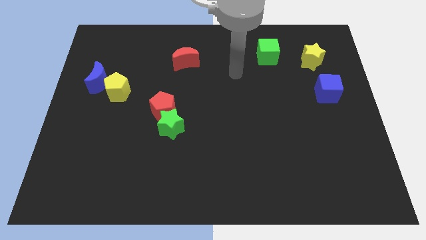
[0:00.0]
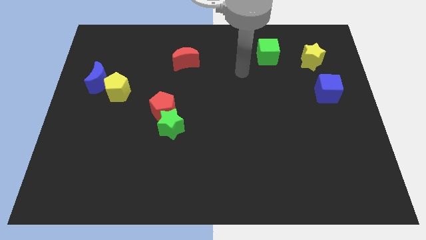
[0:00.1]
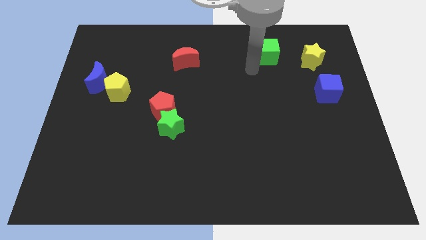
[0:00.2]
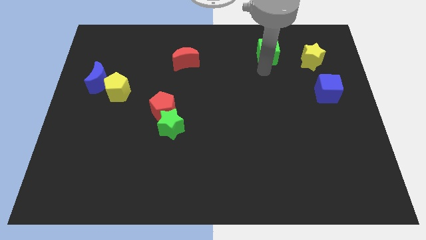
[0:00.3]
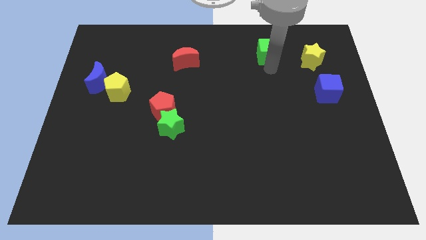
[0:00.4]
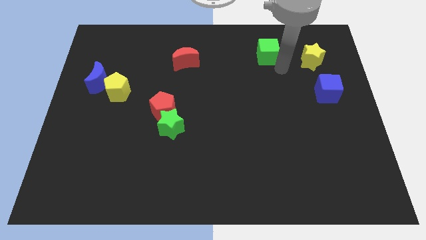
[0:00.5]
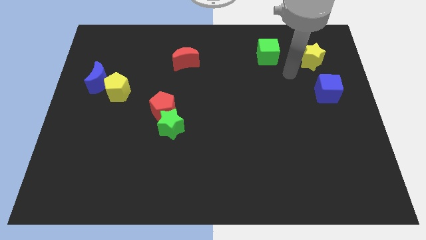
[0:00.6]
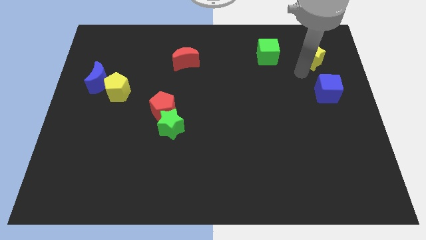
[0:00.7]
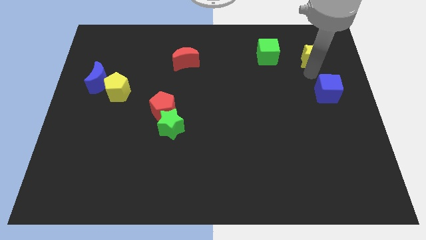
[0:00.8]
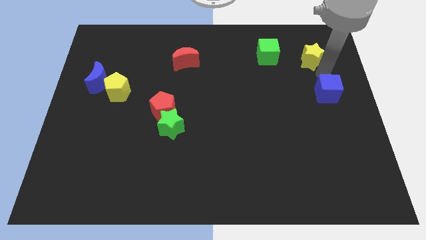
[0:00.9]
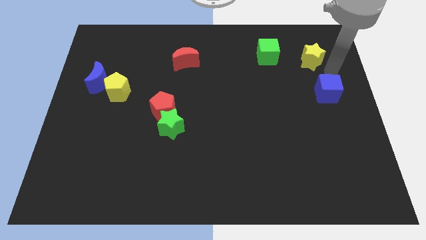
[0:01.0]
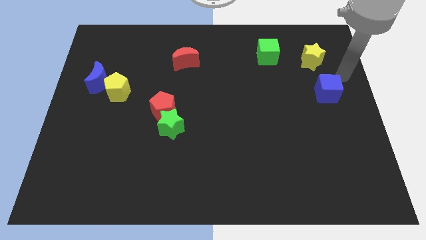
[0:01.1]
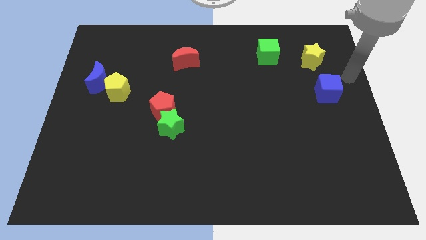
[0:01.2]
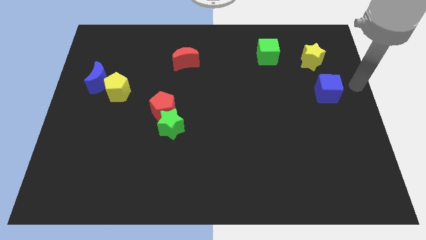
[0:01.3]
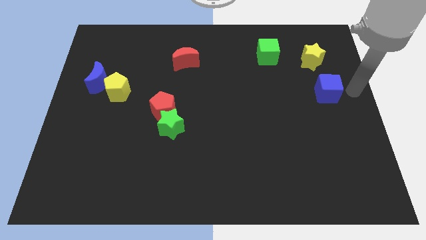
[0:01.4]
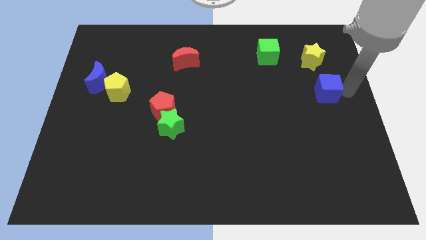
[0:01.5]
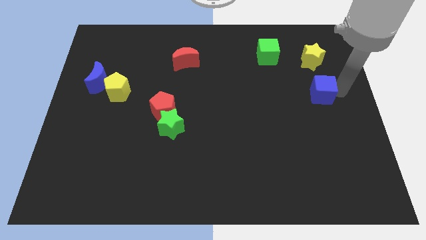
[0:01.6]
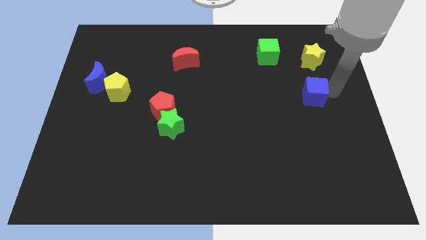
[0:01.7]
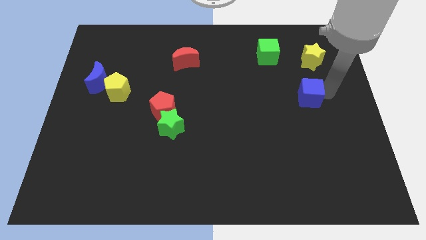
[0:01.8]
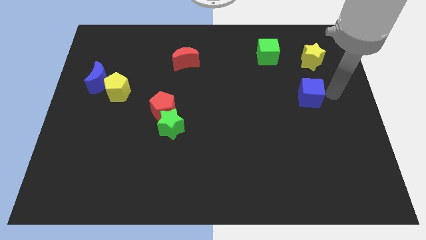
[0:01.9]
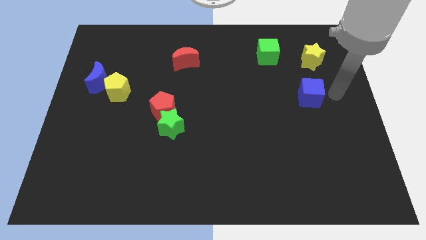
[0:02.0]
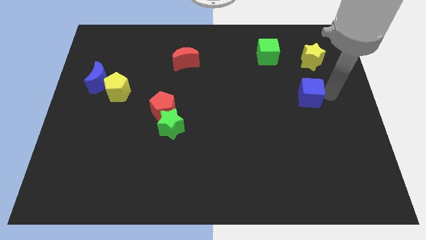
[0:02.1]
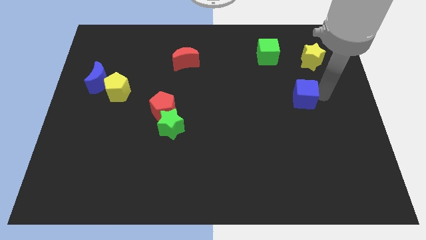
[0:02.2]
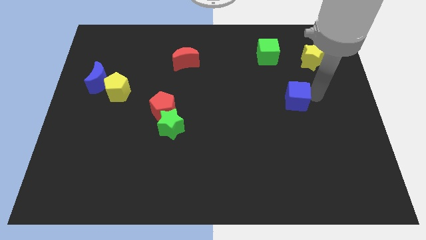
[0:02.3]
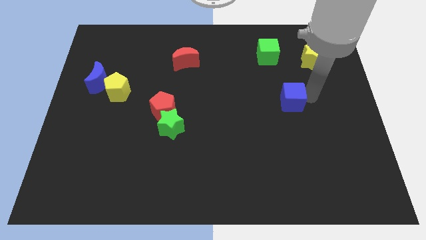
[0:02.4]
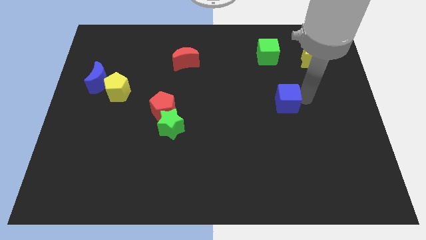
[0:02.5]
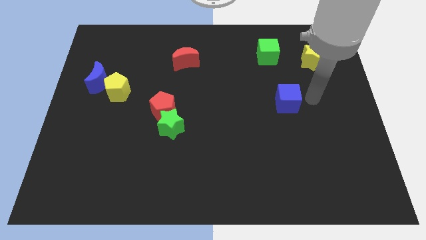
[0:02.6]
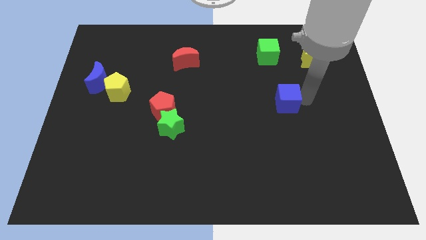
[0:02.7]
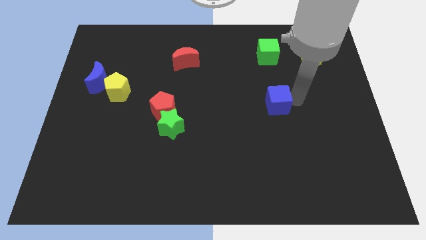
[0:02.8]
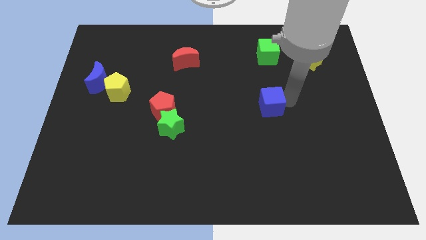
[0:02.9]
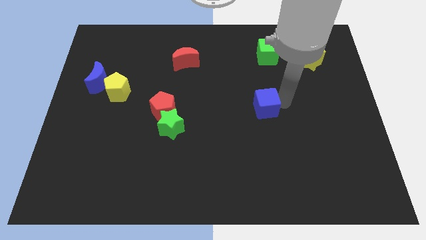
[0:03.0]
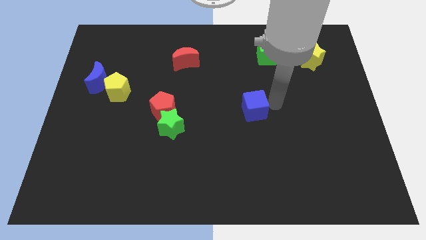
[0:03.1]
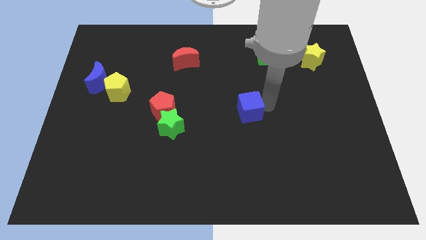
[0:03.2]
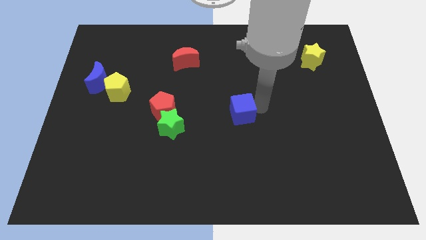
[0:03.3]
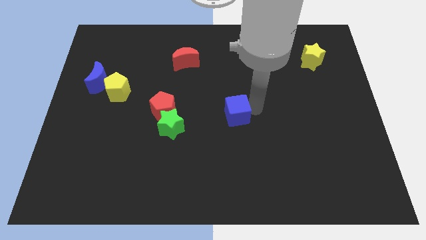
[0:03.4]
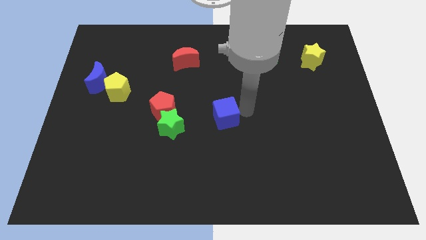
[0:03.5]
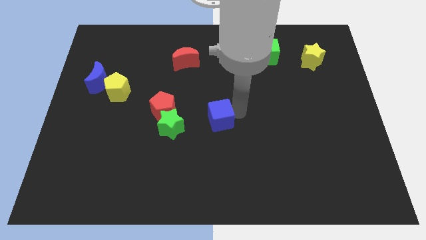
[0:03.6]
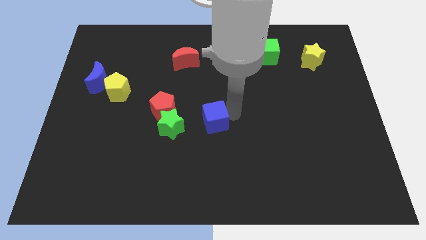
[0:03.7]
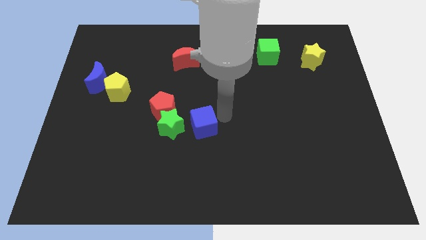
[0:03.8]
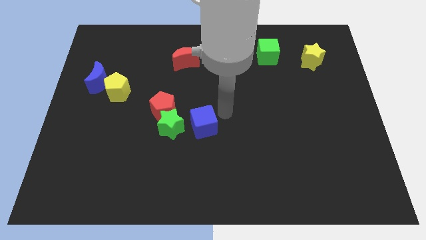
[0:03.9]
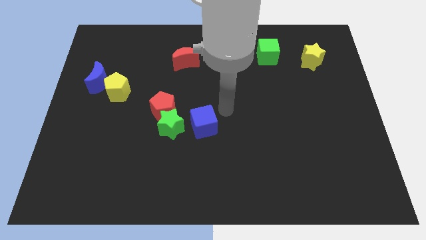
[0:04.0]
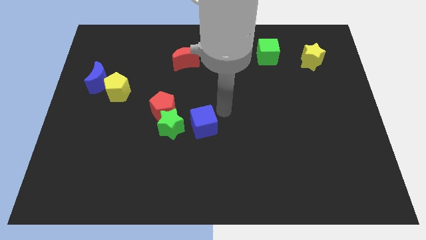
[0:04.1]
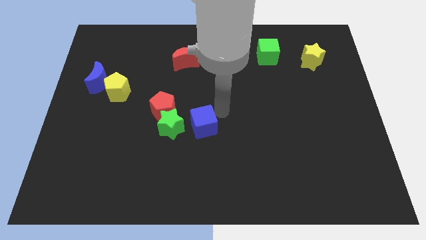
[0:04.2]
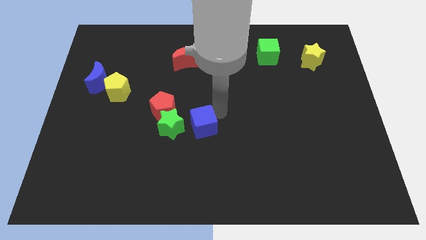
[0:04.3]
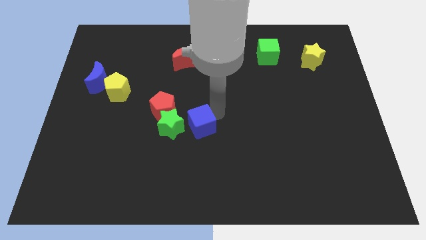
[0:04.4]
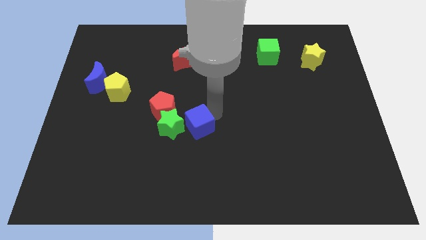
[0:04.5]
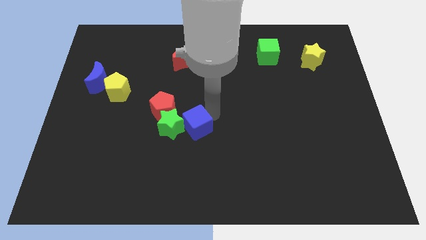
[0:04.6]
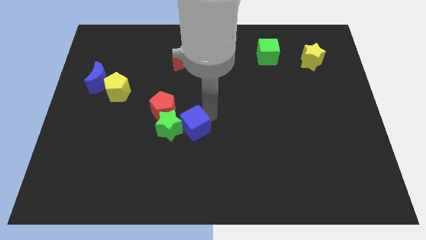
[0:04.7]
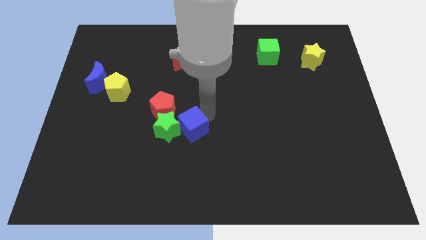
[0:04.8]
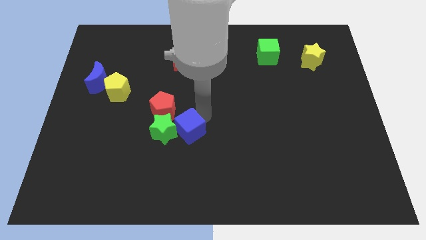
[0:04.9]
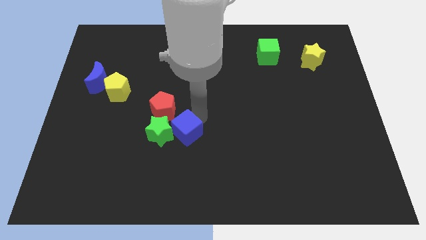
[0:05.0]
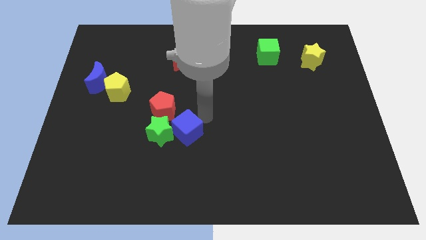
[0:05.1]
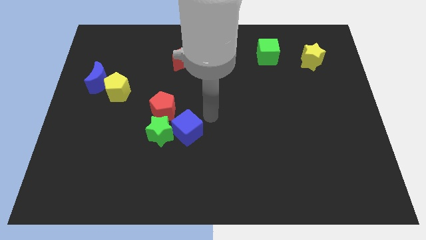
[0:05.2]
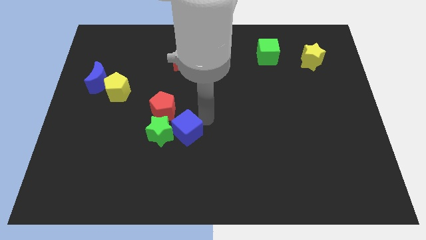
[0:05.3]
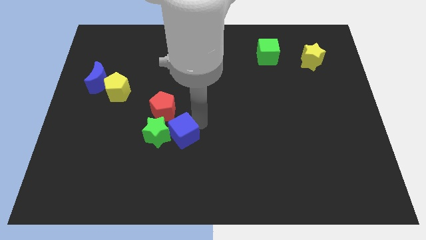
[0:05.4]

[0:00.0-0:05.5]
push the blue cube to the bottom side of the red pentagon

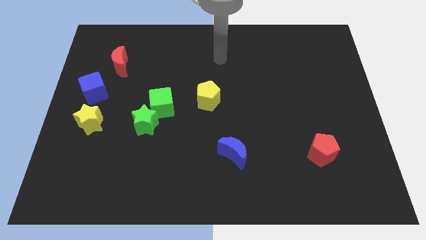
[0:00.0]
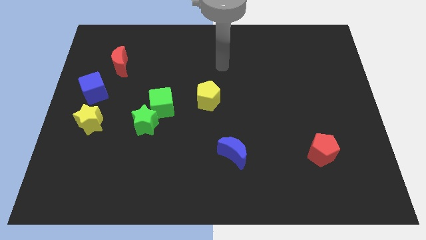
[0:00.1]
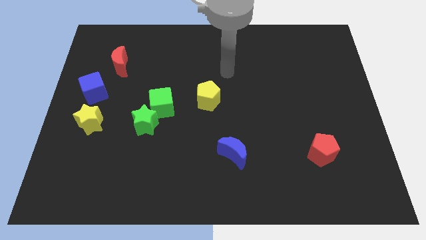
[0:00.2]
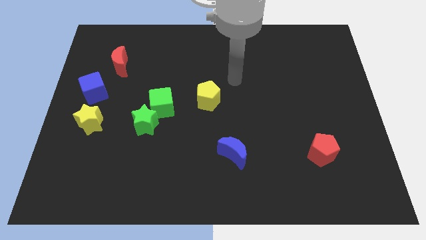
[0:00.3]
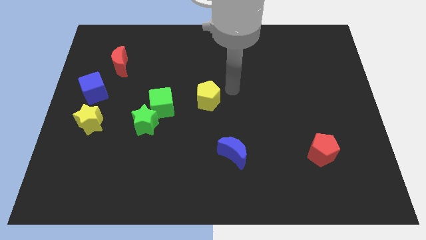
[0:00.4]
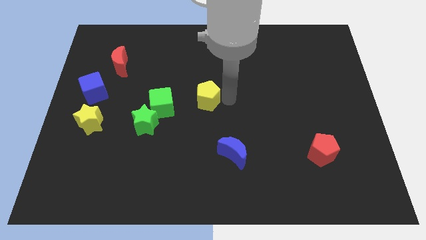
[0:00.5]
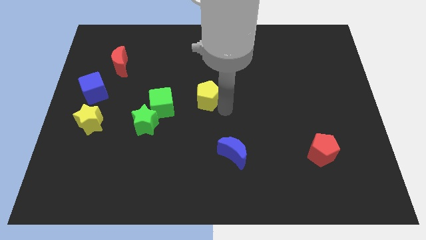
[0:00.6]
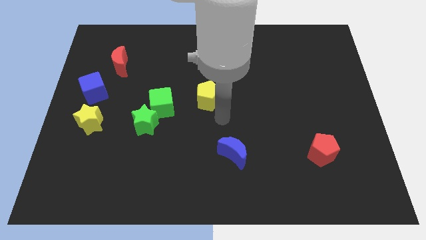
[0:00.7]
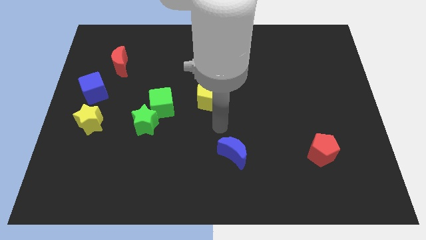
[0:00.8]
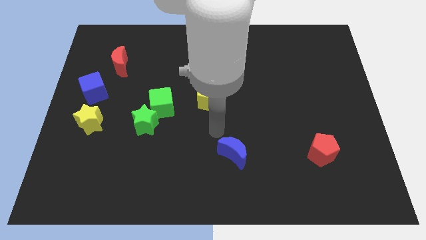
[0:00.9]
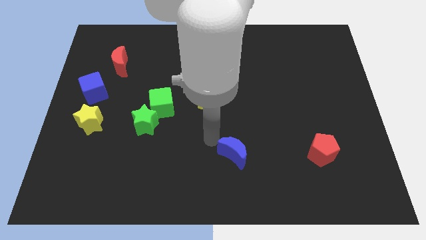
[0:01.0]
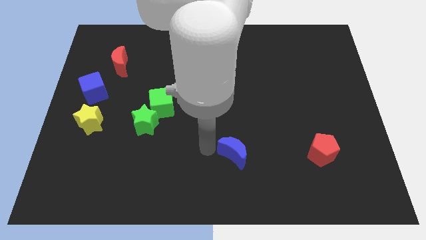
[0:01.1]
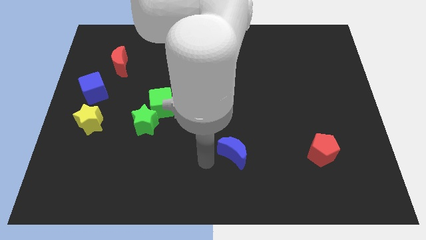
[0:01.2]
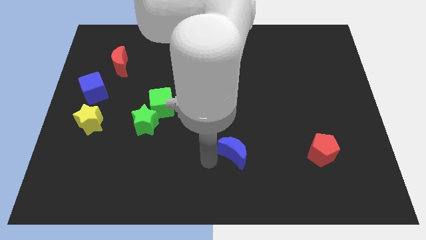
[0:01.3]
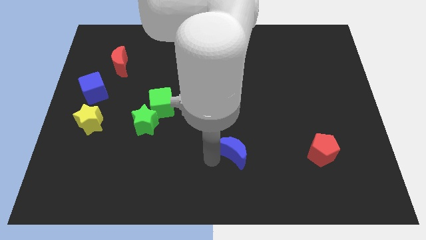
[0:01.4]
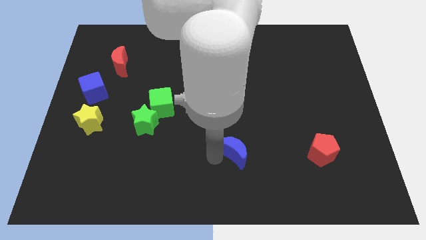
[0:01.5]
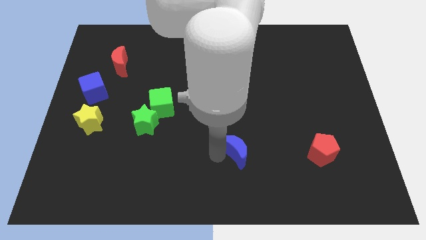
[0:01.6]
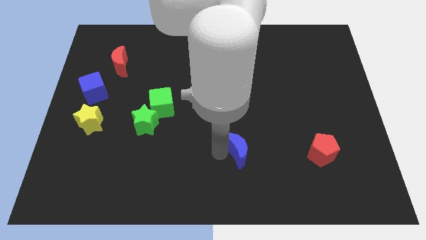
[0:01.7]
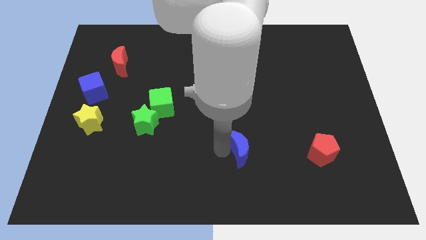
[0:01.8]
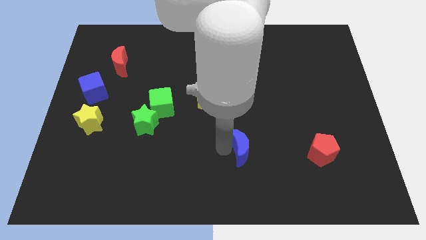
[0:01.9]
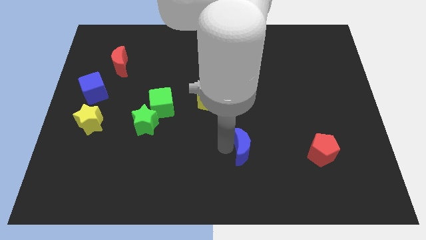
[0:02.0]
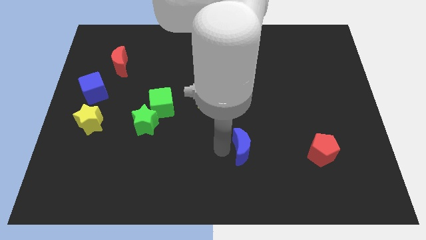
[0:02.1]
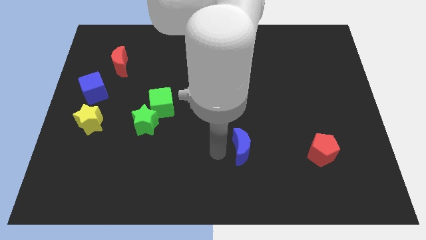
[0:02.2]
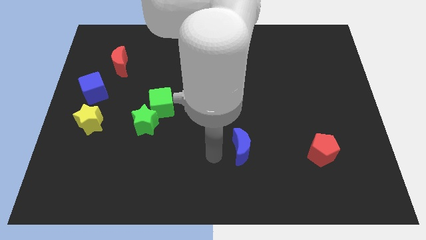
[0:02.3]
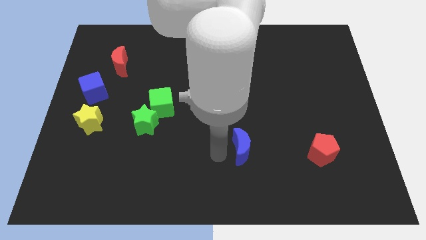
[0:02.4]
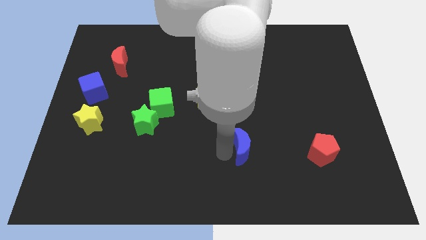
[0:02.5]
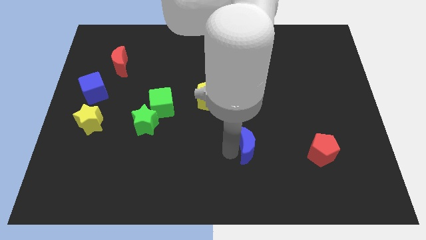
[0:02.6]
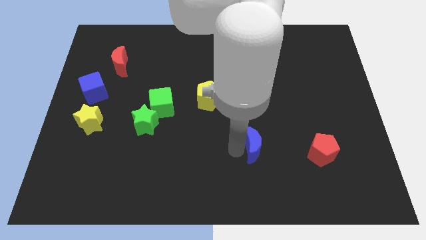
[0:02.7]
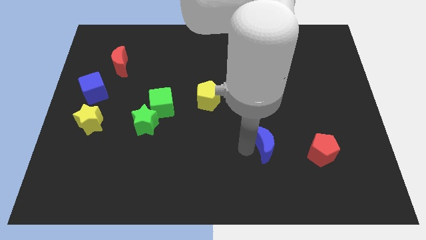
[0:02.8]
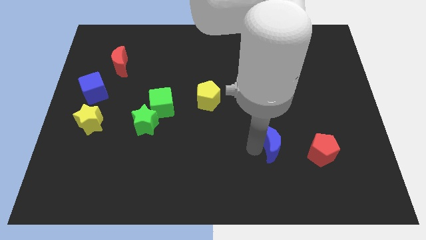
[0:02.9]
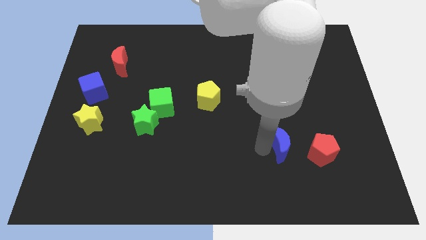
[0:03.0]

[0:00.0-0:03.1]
slide the blue moon diagonally up and to the left of the red pentagon
